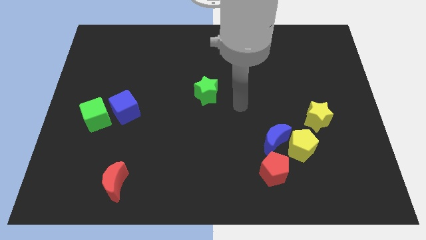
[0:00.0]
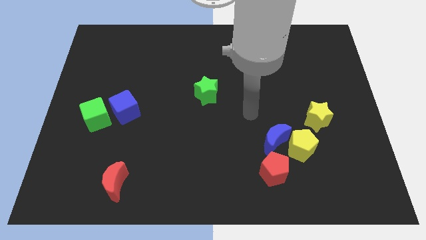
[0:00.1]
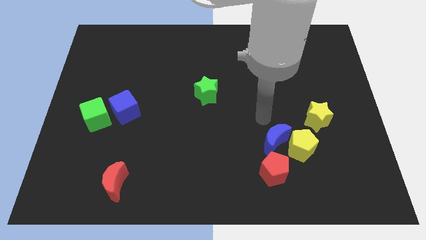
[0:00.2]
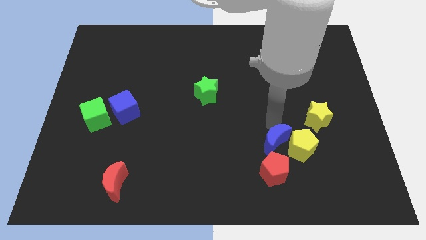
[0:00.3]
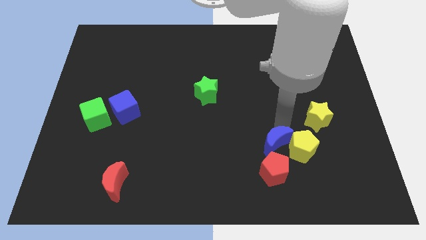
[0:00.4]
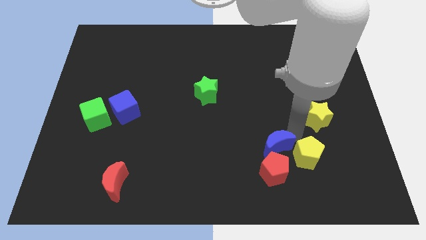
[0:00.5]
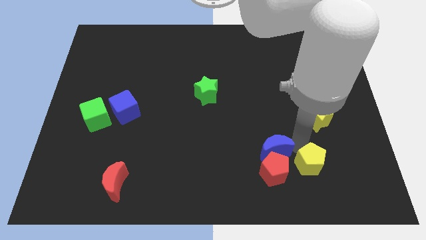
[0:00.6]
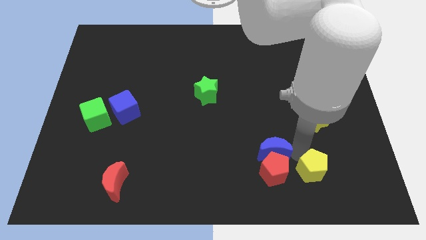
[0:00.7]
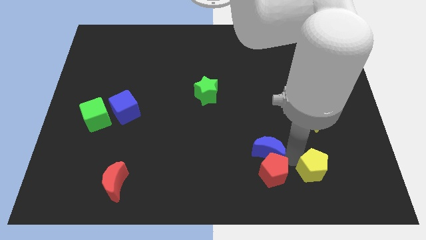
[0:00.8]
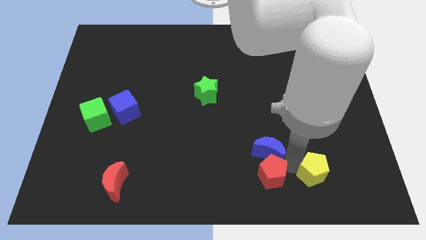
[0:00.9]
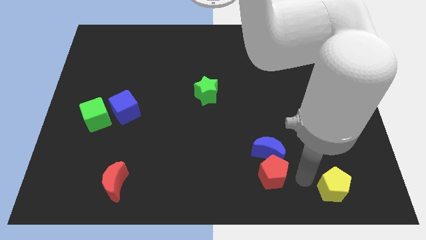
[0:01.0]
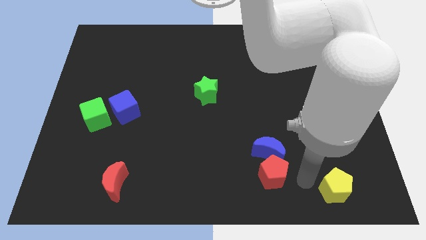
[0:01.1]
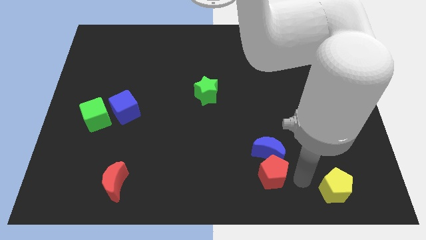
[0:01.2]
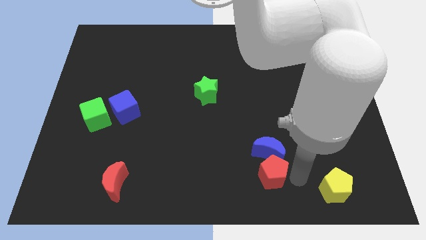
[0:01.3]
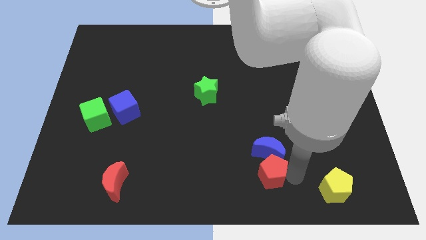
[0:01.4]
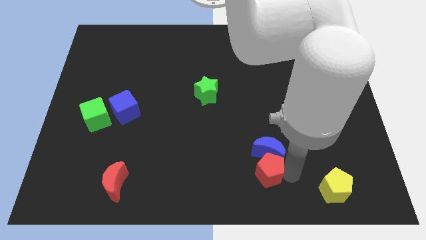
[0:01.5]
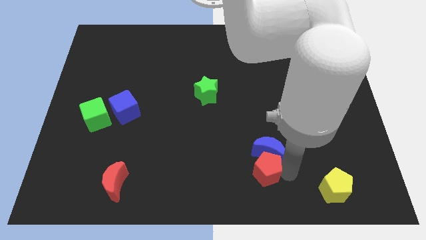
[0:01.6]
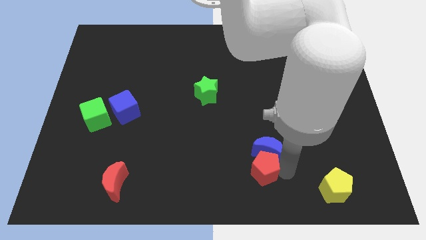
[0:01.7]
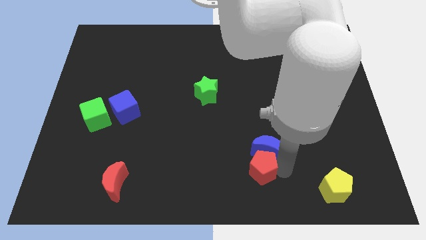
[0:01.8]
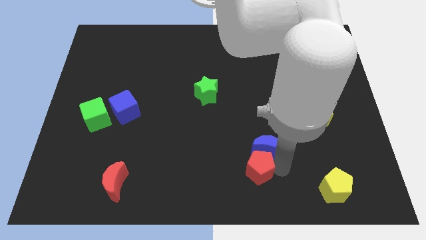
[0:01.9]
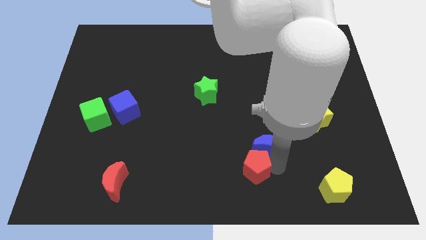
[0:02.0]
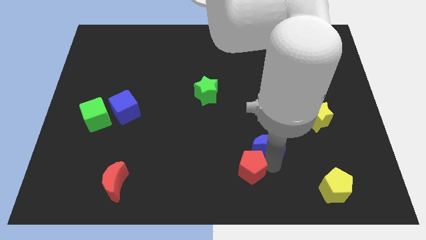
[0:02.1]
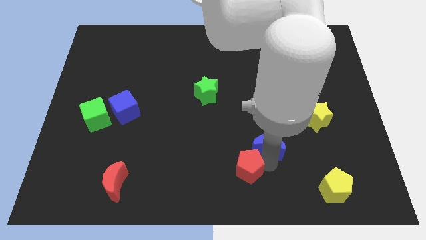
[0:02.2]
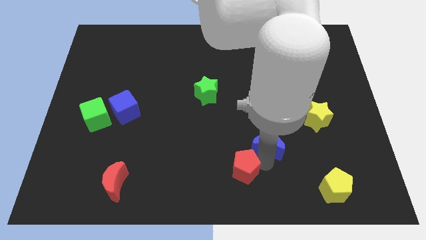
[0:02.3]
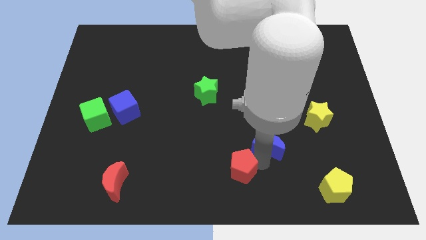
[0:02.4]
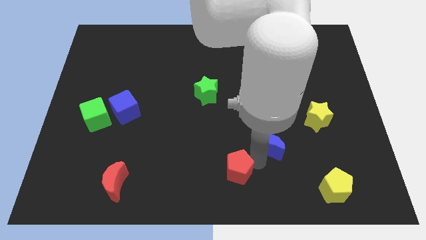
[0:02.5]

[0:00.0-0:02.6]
move the red pentagon a little bit to the left

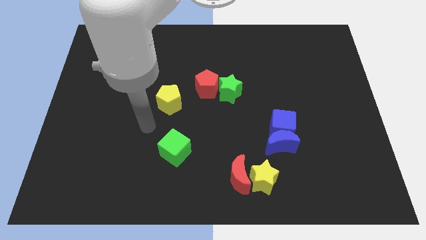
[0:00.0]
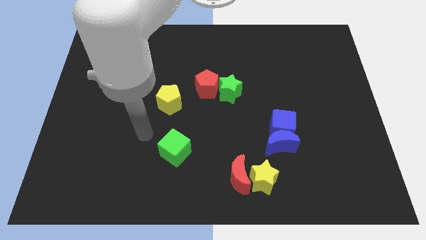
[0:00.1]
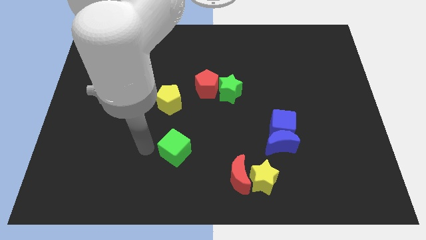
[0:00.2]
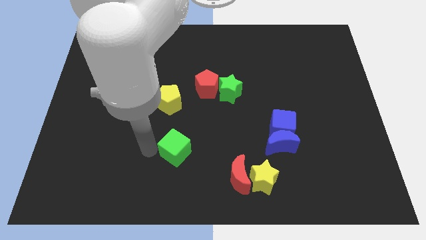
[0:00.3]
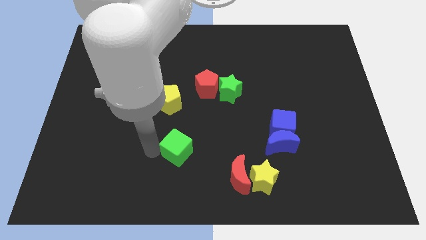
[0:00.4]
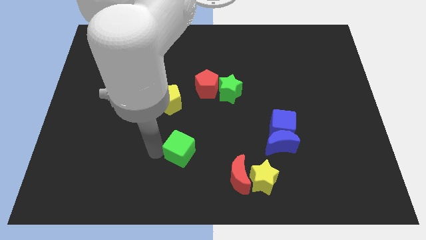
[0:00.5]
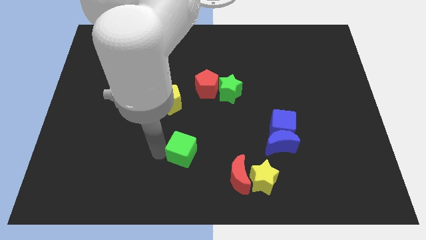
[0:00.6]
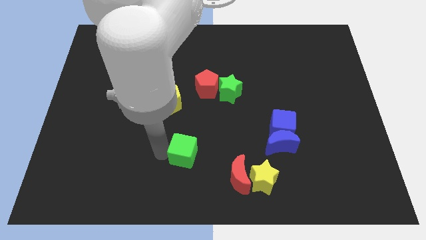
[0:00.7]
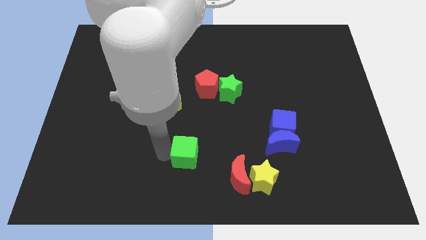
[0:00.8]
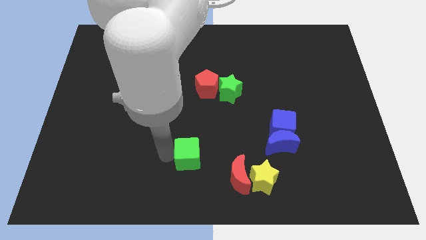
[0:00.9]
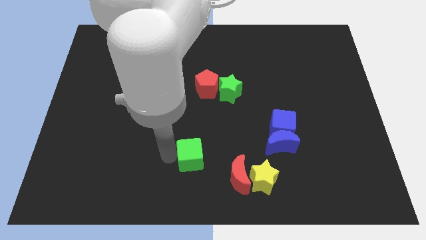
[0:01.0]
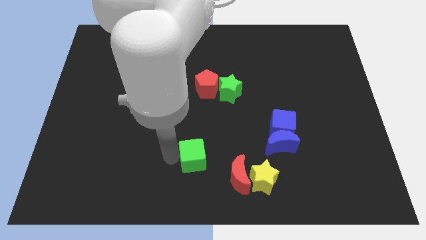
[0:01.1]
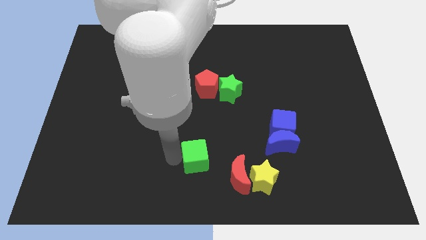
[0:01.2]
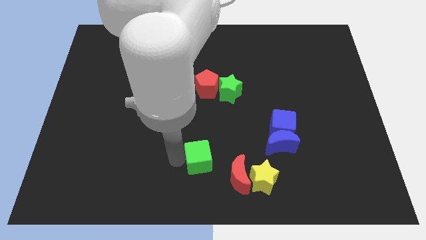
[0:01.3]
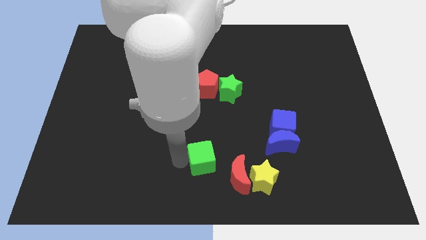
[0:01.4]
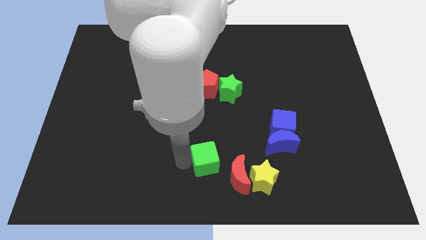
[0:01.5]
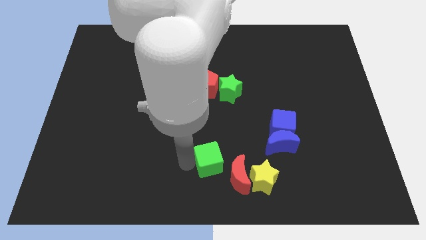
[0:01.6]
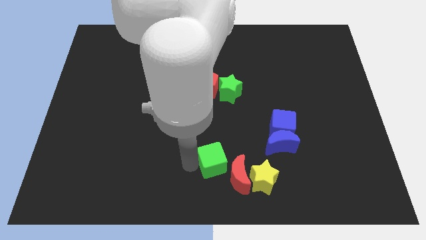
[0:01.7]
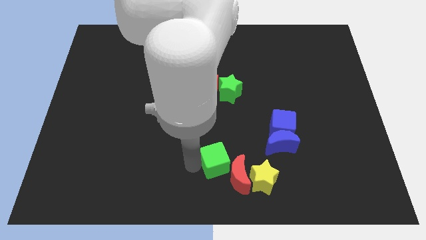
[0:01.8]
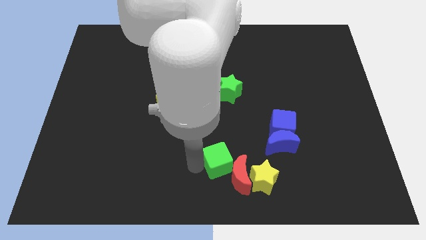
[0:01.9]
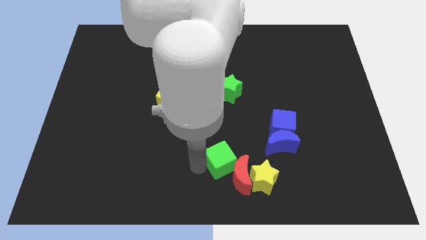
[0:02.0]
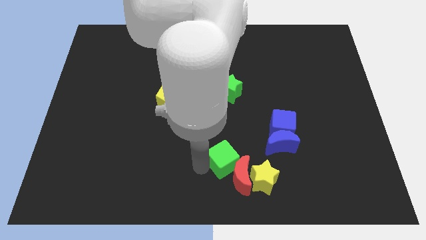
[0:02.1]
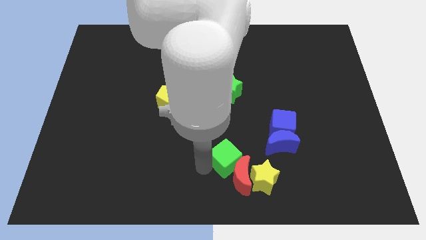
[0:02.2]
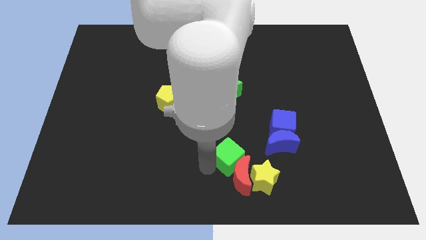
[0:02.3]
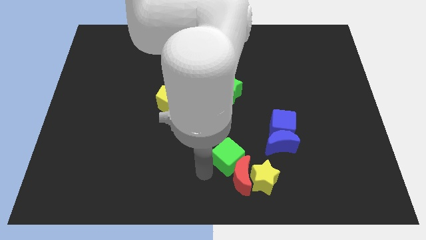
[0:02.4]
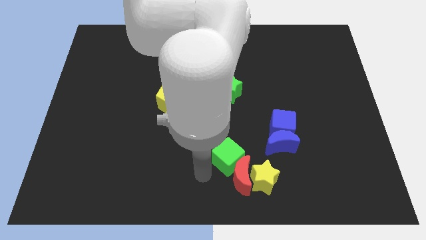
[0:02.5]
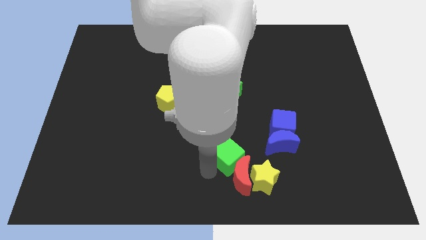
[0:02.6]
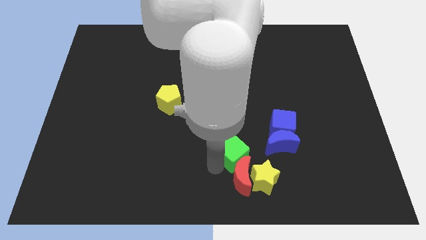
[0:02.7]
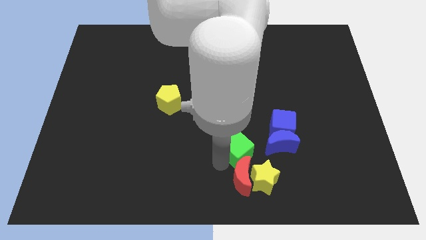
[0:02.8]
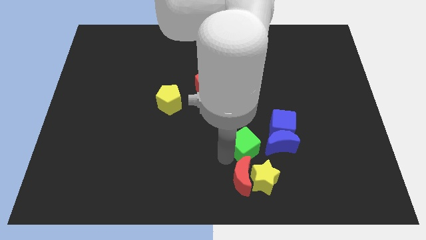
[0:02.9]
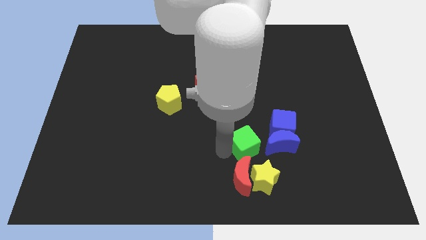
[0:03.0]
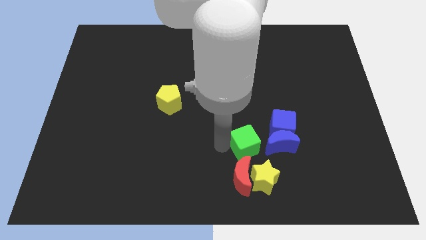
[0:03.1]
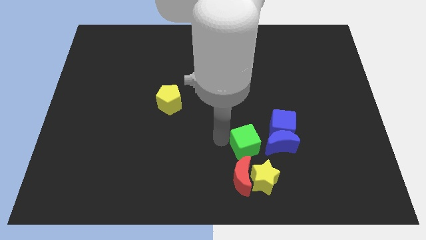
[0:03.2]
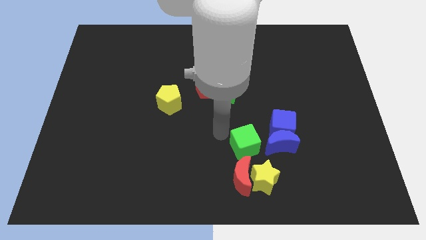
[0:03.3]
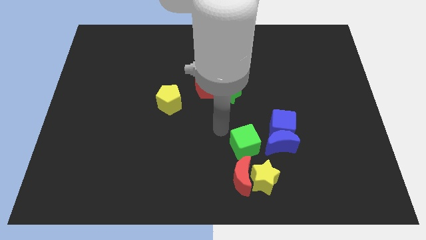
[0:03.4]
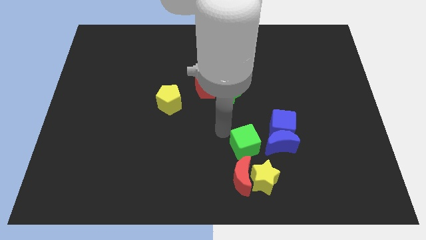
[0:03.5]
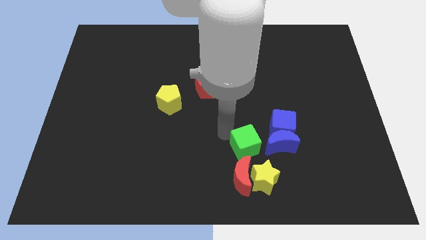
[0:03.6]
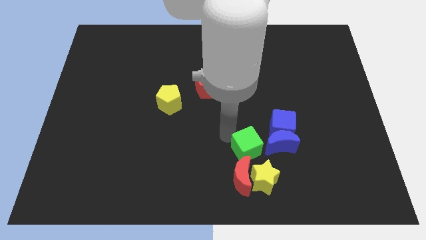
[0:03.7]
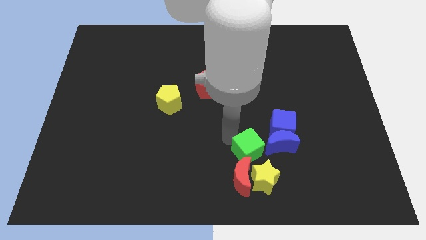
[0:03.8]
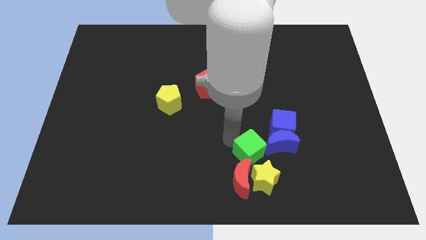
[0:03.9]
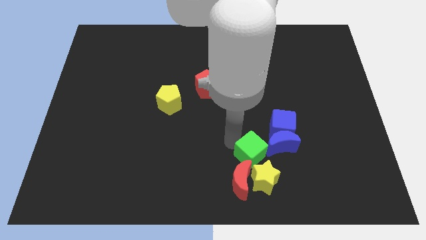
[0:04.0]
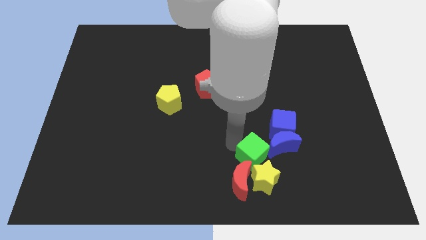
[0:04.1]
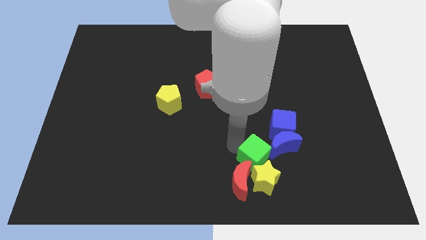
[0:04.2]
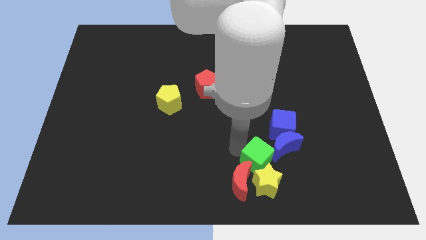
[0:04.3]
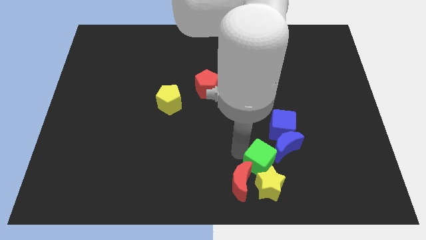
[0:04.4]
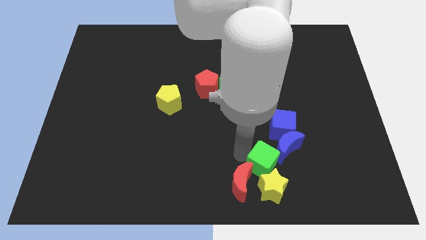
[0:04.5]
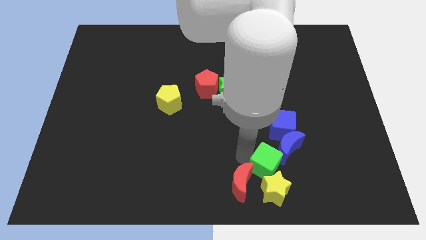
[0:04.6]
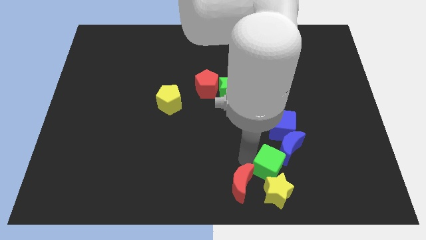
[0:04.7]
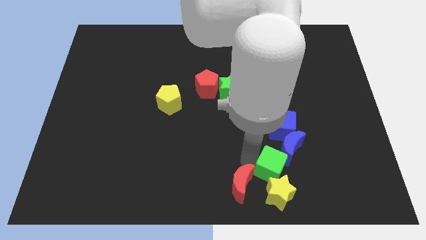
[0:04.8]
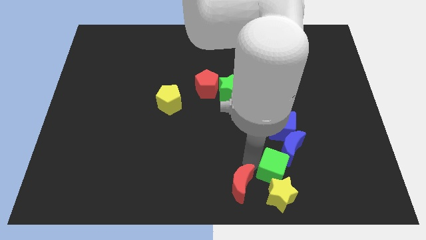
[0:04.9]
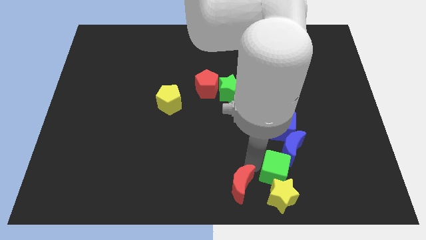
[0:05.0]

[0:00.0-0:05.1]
slide the green cube to the right

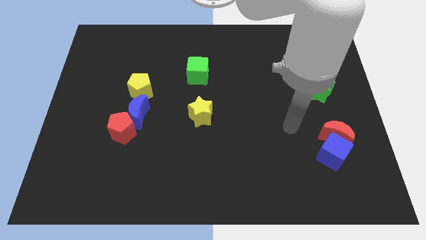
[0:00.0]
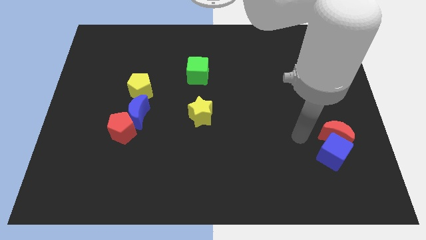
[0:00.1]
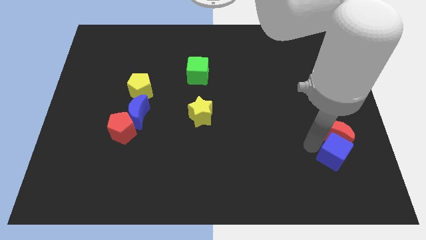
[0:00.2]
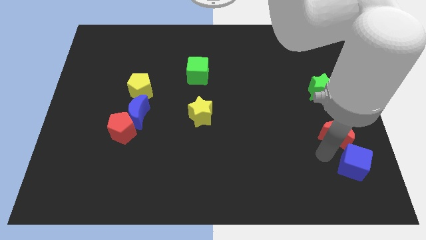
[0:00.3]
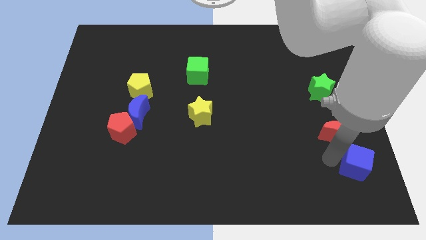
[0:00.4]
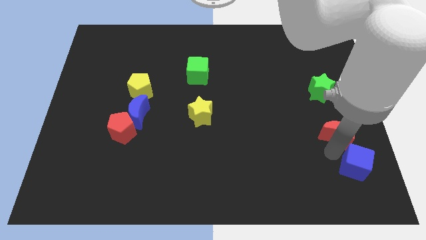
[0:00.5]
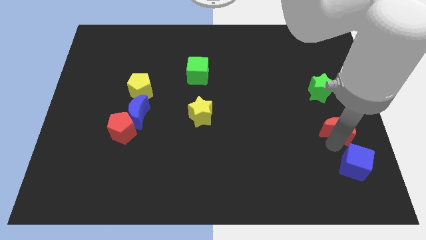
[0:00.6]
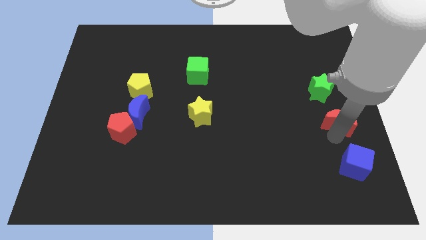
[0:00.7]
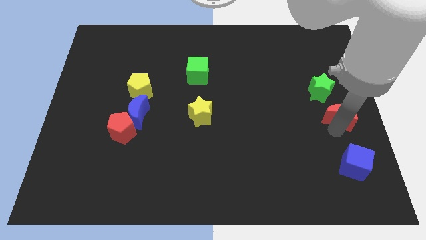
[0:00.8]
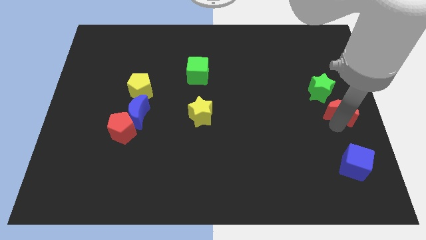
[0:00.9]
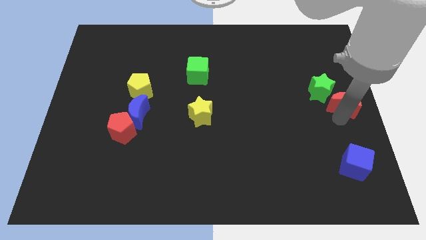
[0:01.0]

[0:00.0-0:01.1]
push the red moon upwards a bit
